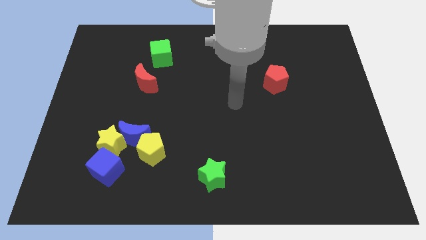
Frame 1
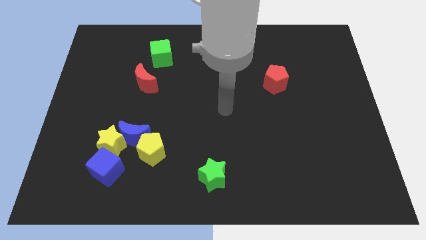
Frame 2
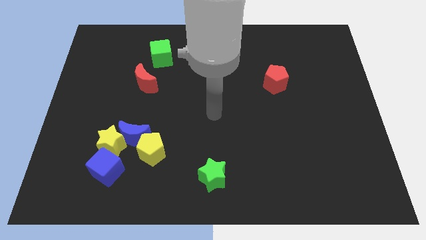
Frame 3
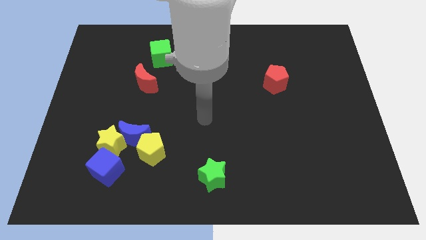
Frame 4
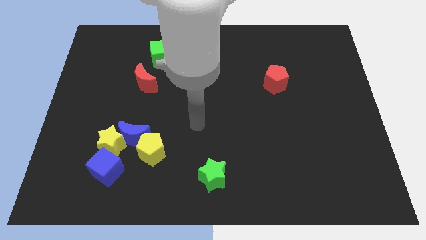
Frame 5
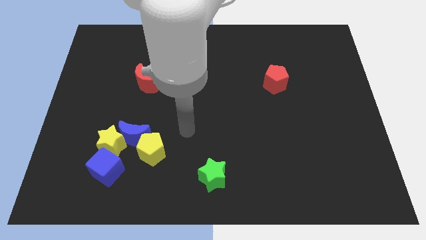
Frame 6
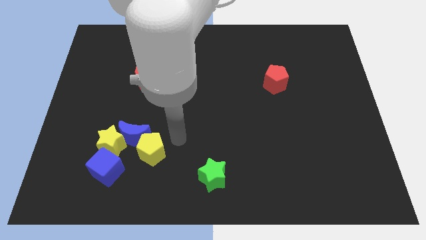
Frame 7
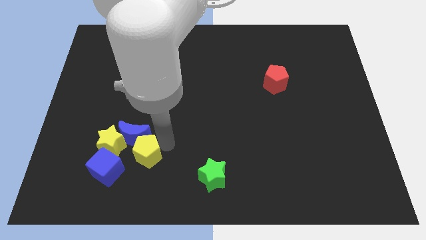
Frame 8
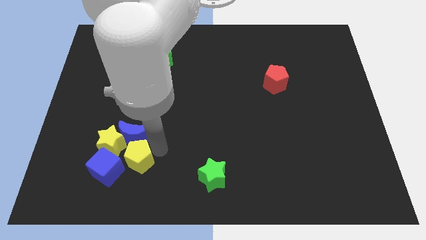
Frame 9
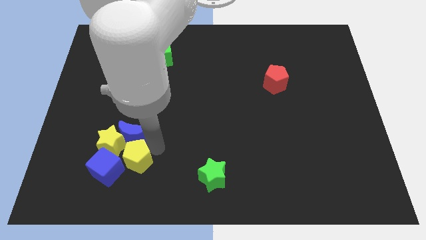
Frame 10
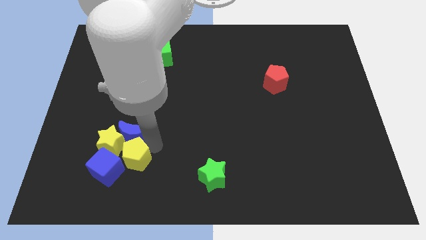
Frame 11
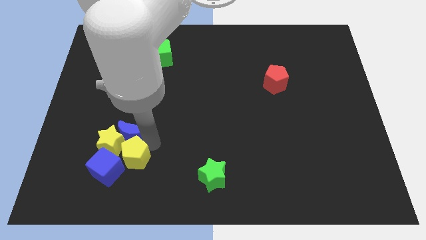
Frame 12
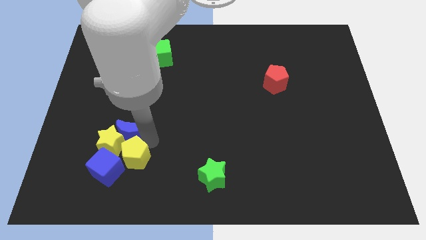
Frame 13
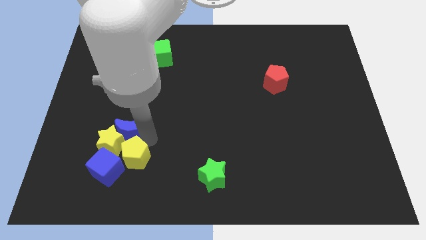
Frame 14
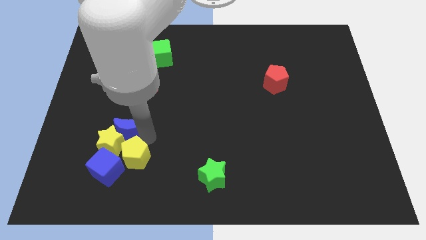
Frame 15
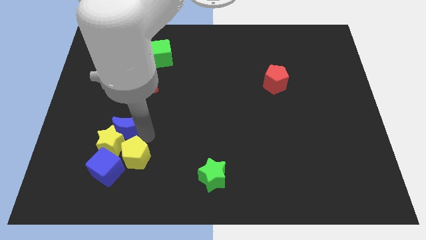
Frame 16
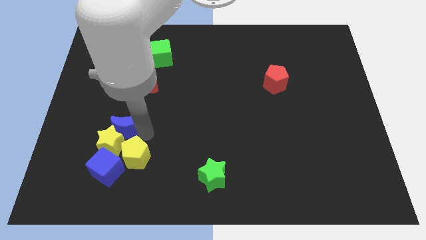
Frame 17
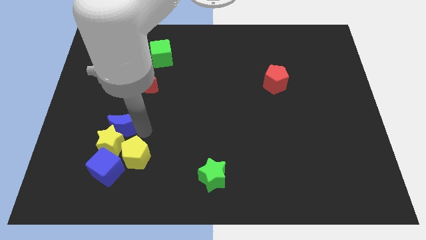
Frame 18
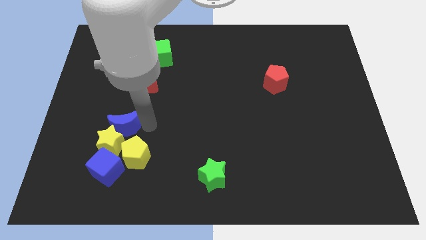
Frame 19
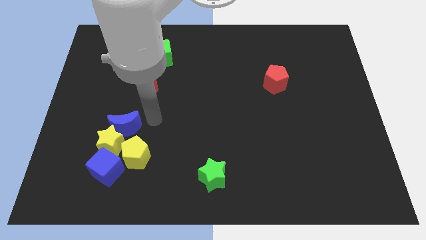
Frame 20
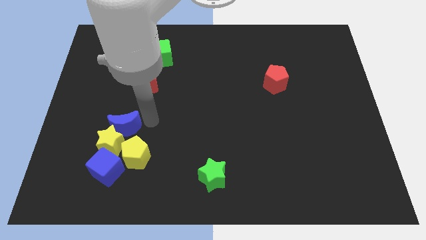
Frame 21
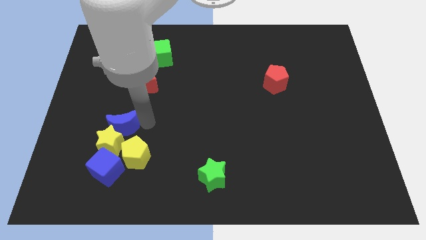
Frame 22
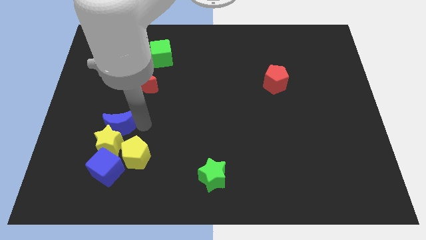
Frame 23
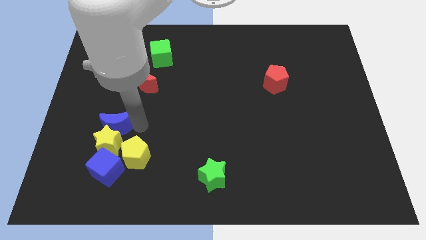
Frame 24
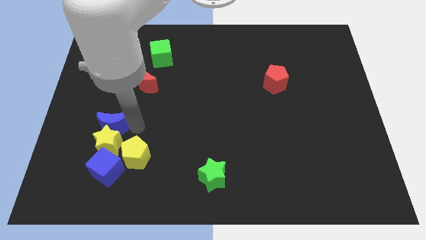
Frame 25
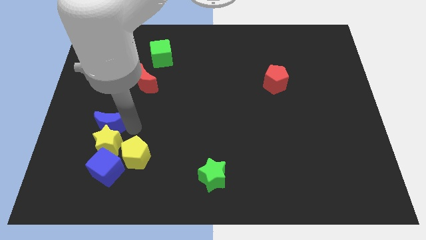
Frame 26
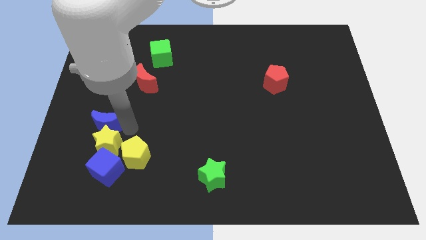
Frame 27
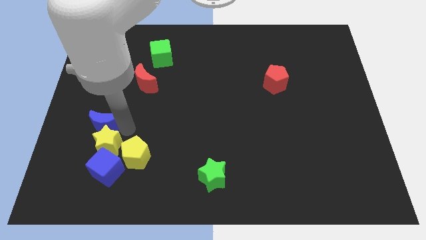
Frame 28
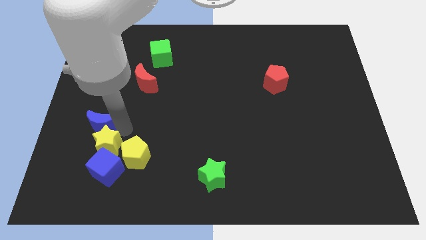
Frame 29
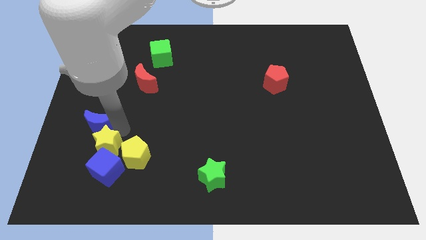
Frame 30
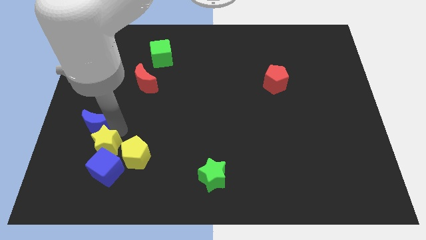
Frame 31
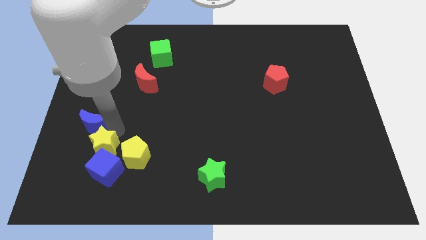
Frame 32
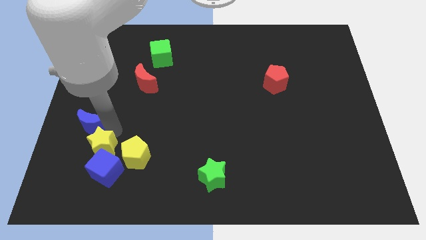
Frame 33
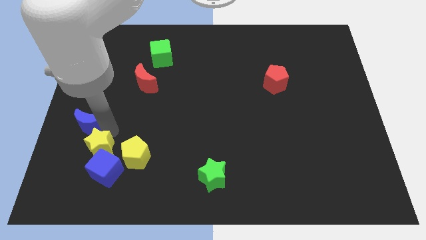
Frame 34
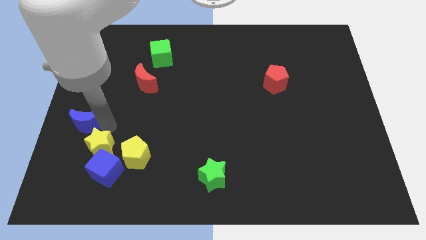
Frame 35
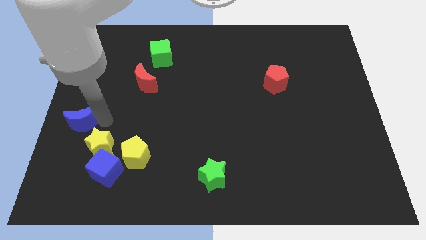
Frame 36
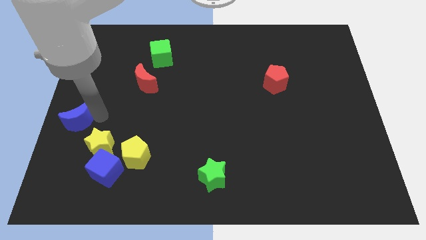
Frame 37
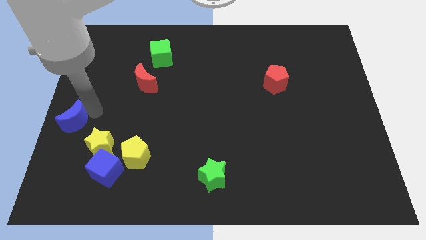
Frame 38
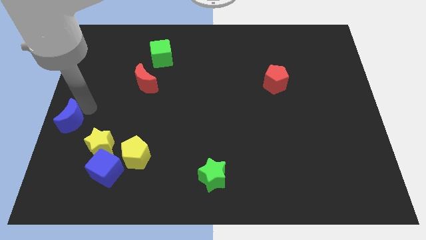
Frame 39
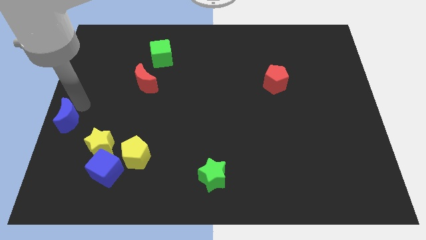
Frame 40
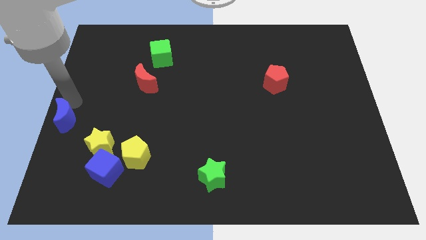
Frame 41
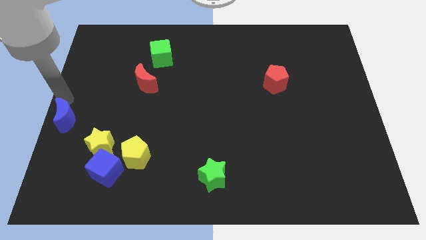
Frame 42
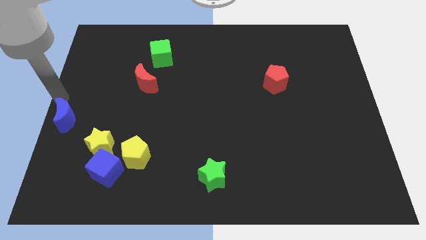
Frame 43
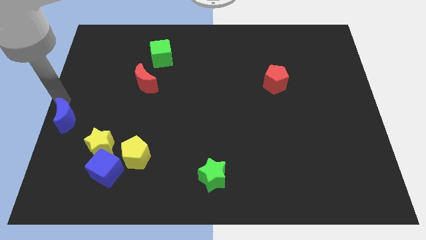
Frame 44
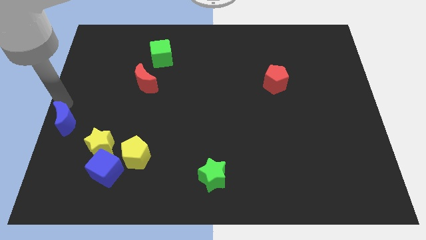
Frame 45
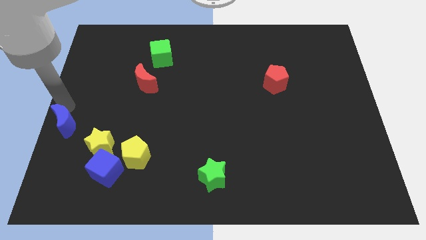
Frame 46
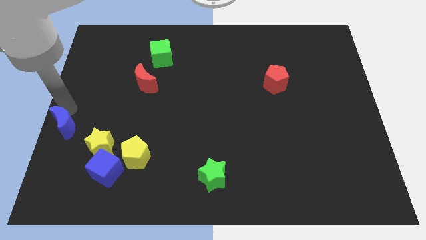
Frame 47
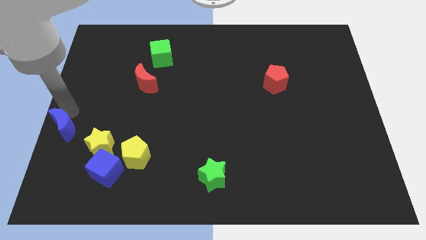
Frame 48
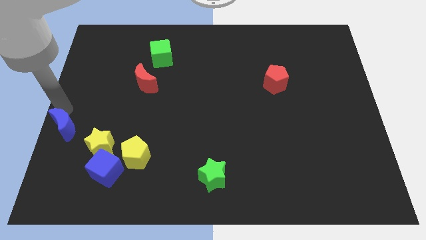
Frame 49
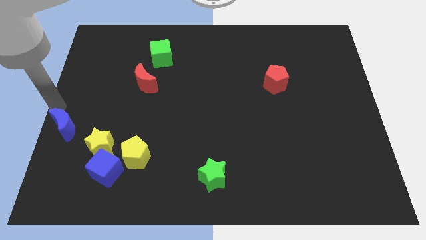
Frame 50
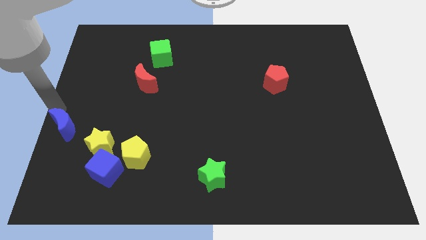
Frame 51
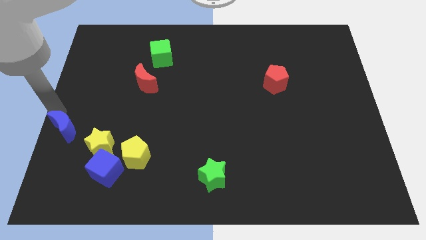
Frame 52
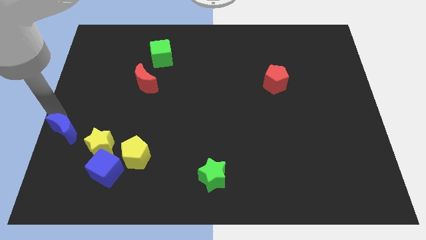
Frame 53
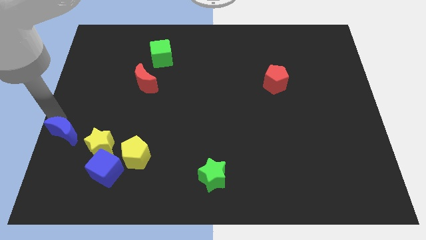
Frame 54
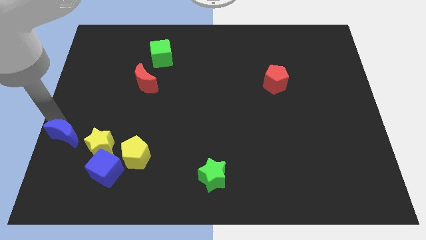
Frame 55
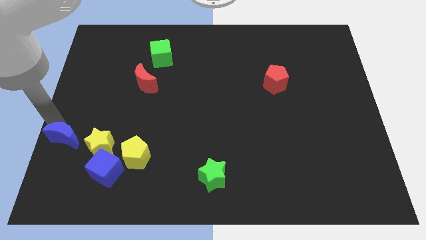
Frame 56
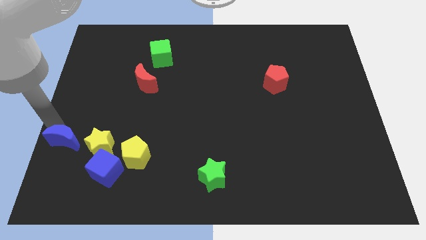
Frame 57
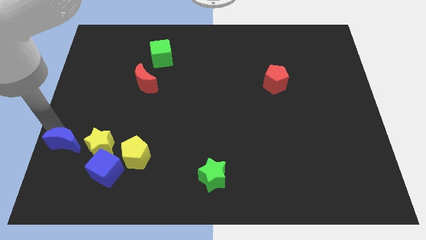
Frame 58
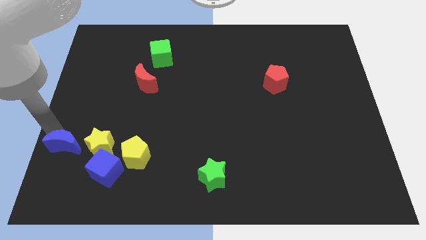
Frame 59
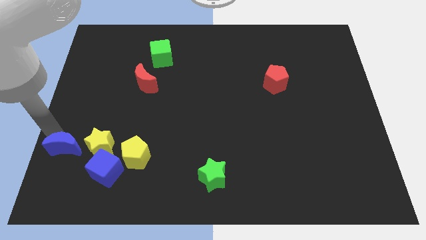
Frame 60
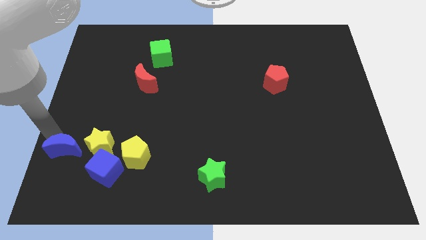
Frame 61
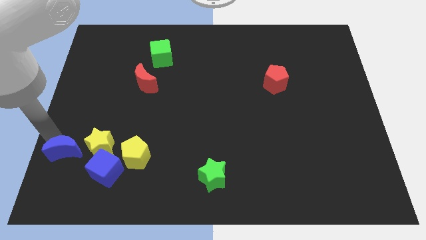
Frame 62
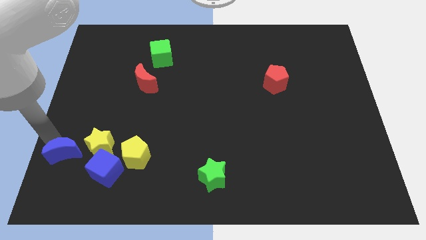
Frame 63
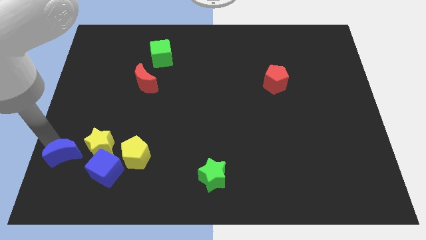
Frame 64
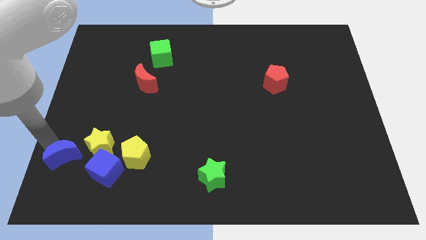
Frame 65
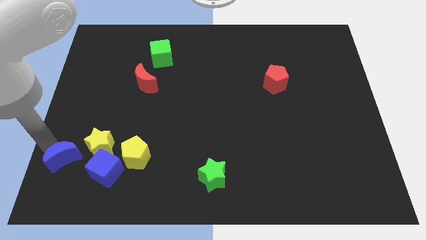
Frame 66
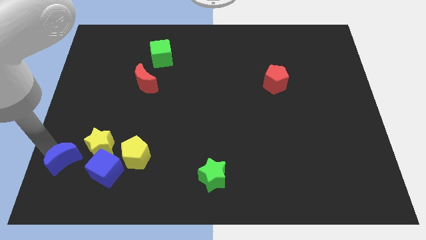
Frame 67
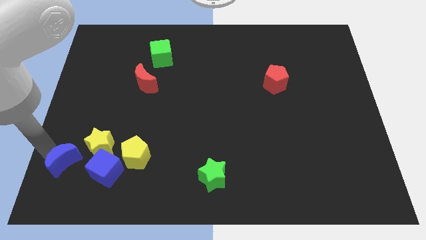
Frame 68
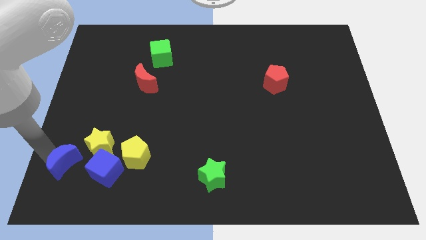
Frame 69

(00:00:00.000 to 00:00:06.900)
slide the blue moon to the bottom left of the board
